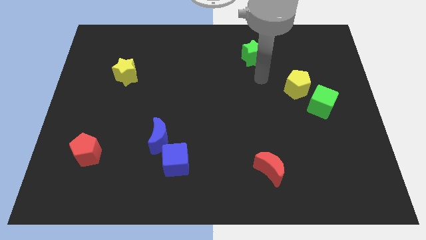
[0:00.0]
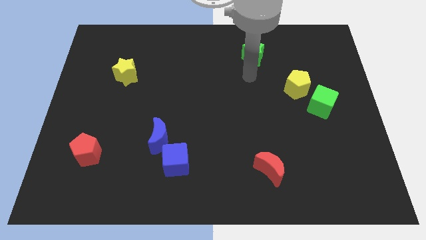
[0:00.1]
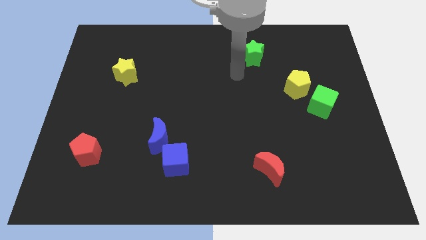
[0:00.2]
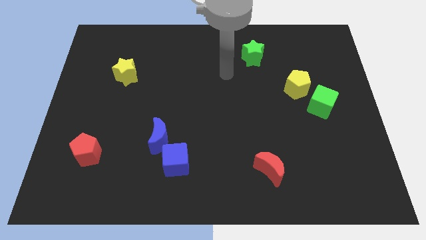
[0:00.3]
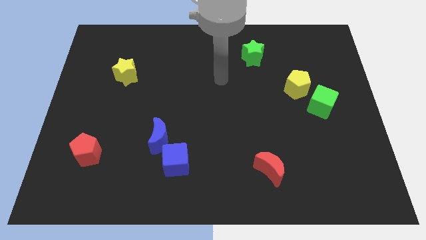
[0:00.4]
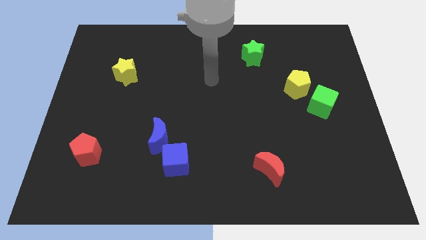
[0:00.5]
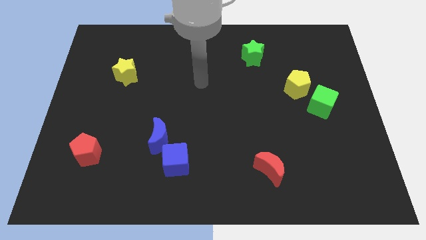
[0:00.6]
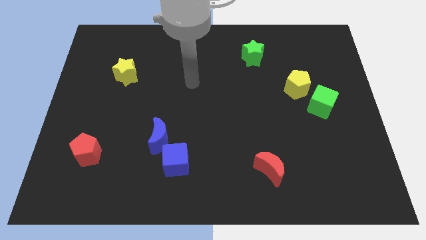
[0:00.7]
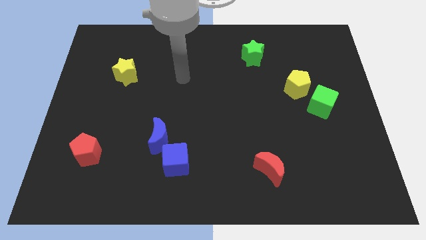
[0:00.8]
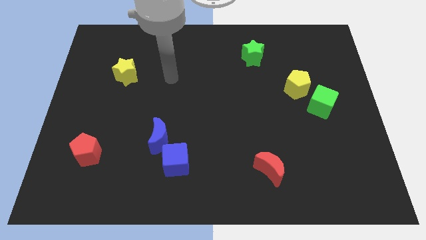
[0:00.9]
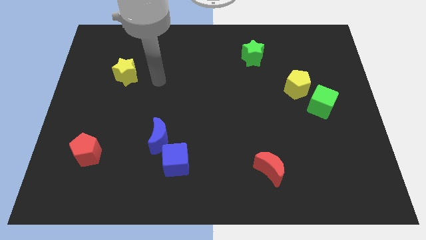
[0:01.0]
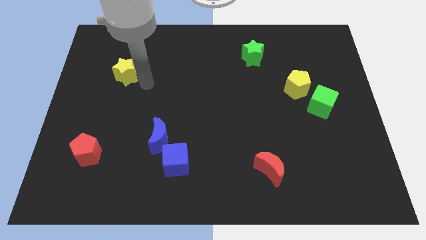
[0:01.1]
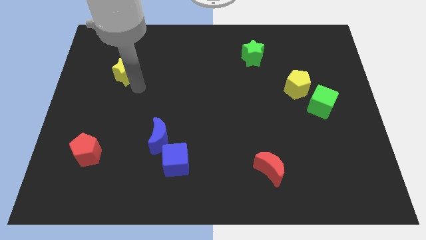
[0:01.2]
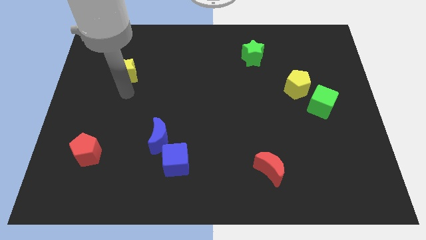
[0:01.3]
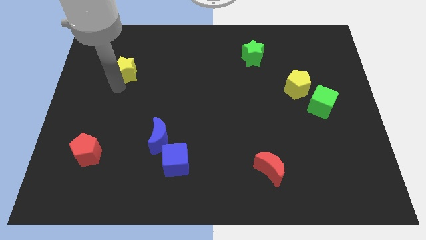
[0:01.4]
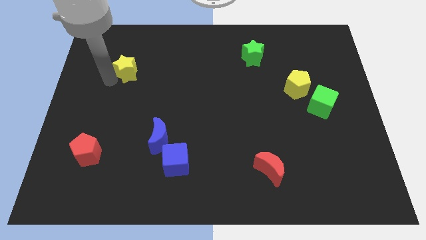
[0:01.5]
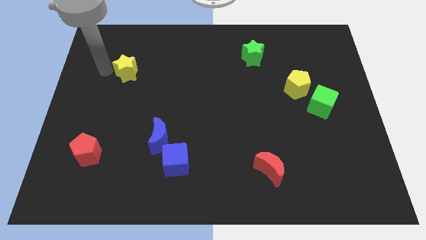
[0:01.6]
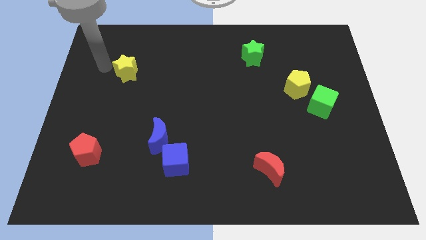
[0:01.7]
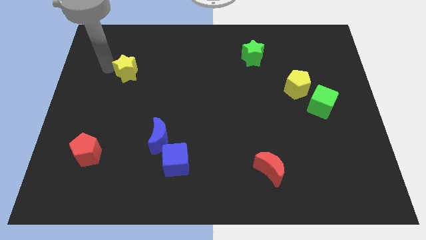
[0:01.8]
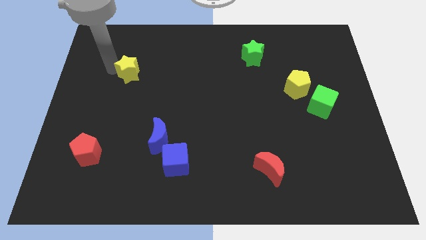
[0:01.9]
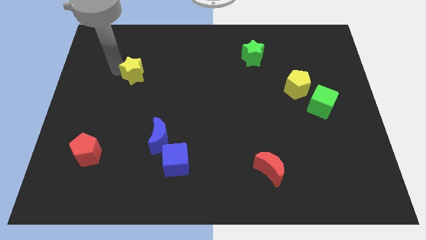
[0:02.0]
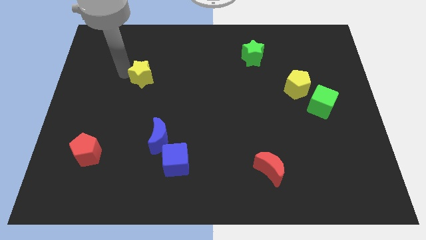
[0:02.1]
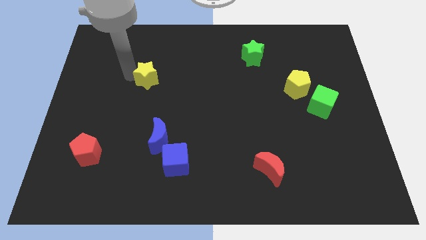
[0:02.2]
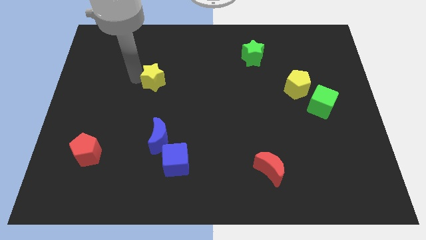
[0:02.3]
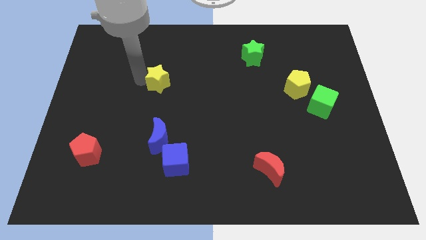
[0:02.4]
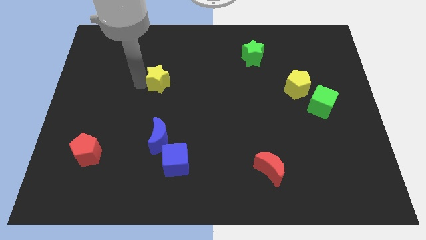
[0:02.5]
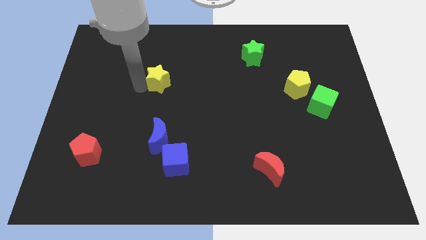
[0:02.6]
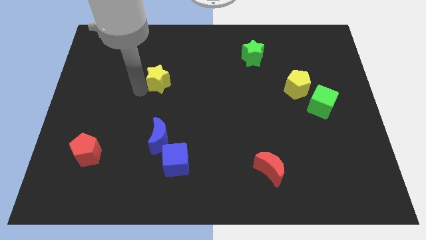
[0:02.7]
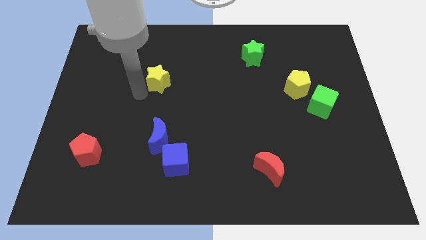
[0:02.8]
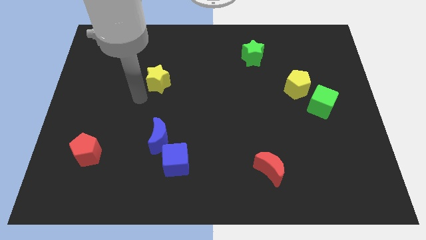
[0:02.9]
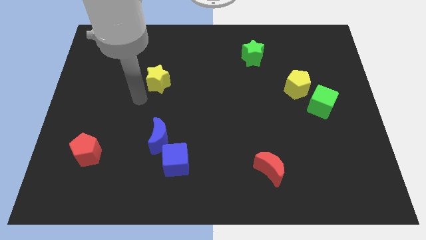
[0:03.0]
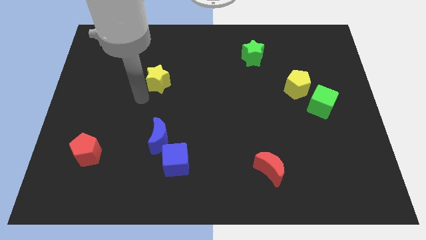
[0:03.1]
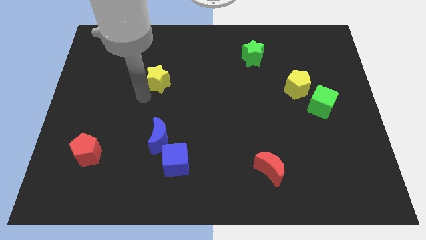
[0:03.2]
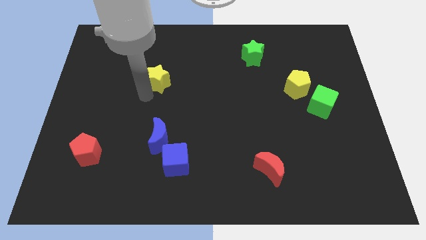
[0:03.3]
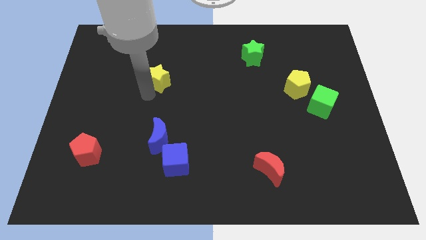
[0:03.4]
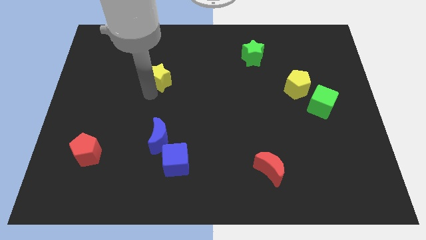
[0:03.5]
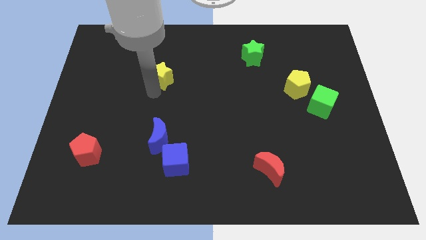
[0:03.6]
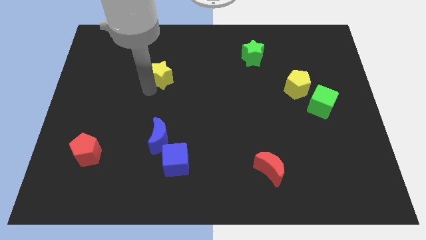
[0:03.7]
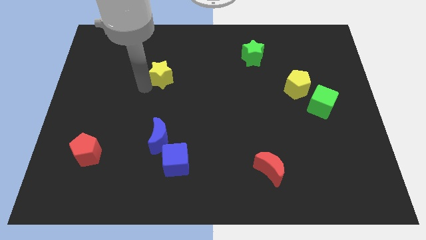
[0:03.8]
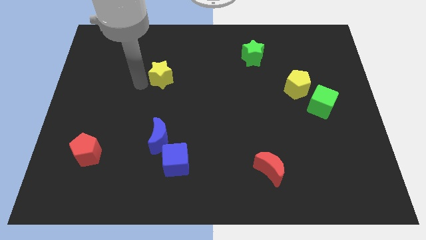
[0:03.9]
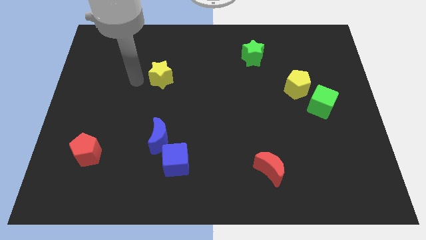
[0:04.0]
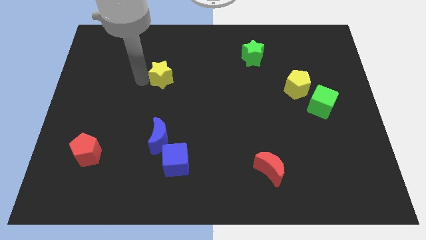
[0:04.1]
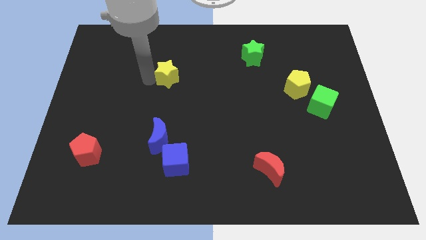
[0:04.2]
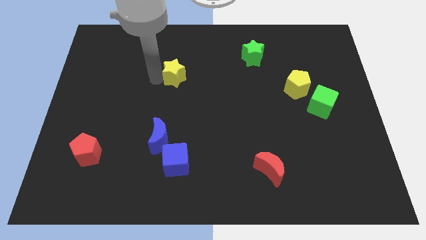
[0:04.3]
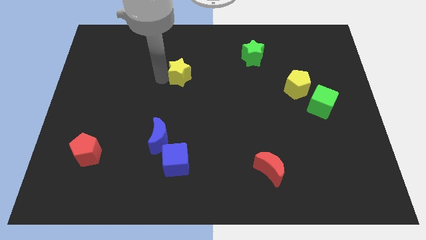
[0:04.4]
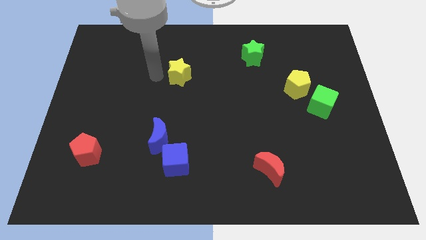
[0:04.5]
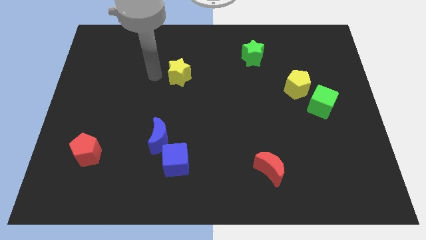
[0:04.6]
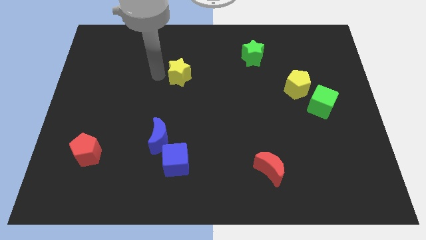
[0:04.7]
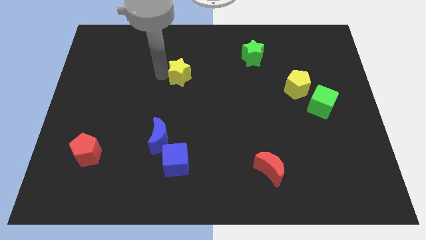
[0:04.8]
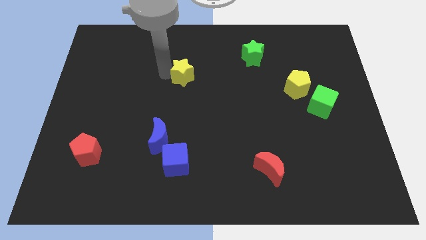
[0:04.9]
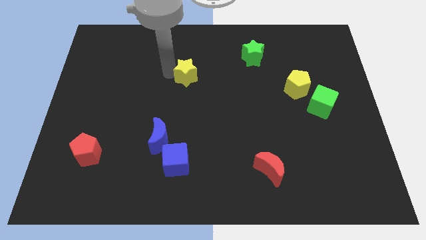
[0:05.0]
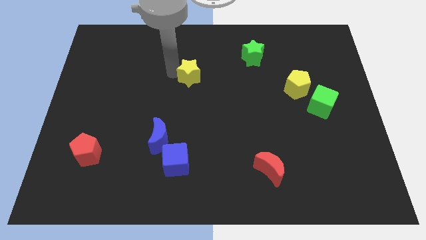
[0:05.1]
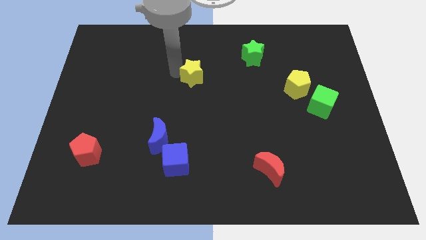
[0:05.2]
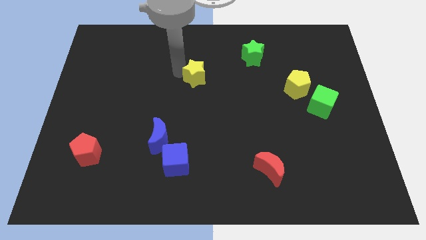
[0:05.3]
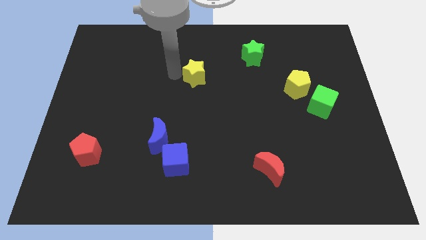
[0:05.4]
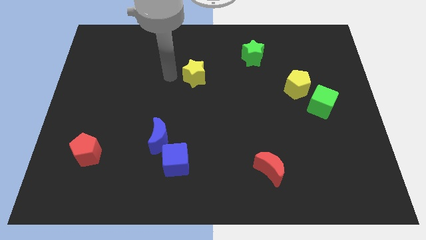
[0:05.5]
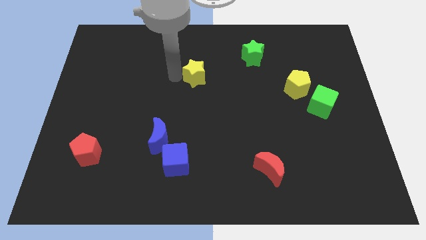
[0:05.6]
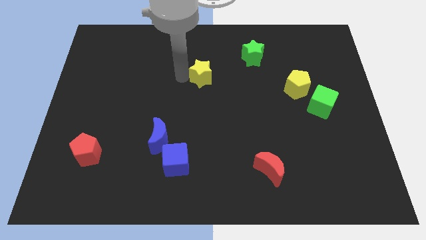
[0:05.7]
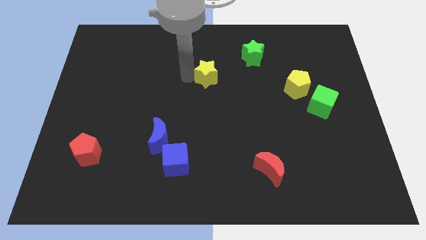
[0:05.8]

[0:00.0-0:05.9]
move the yellow star to the right

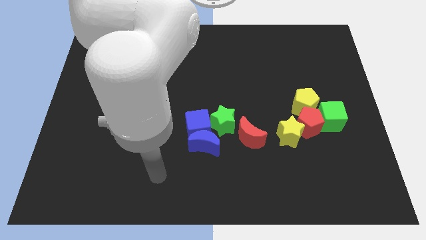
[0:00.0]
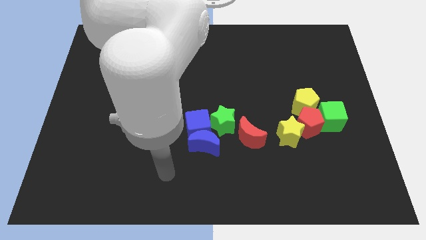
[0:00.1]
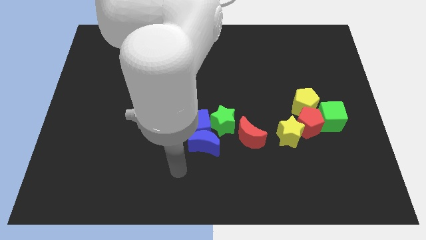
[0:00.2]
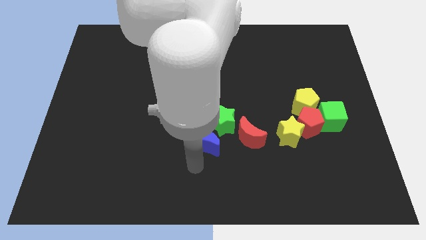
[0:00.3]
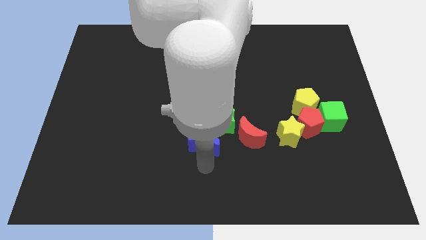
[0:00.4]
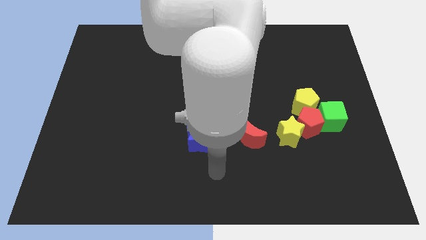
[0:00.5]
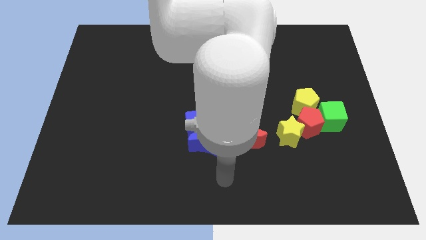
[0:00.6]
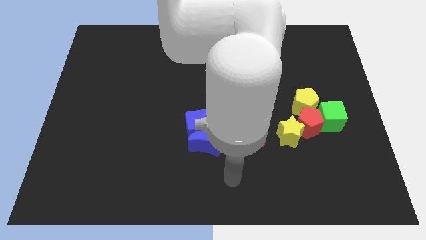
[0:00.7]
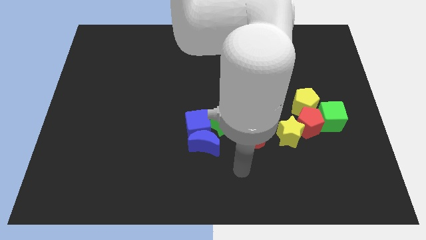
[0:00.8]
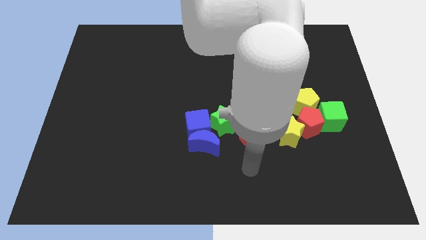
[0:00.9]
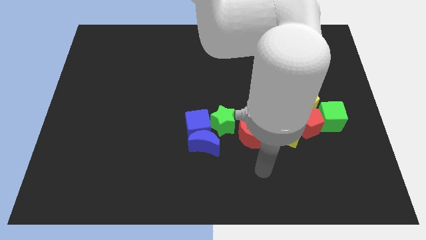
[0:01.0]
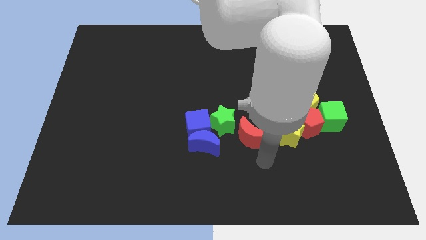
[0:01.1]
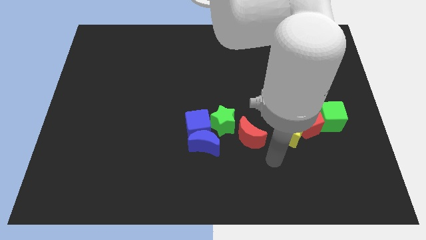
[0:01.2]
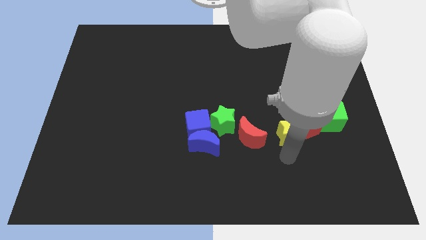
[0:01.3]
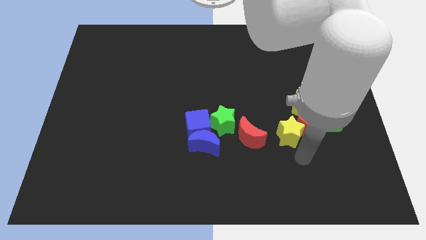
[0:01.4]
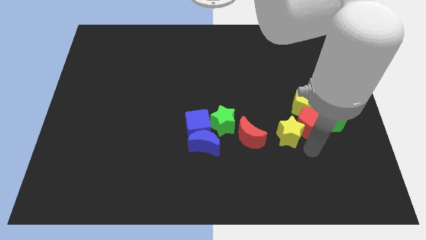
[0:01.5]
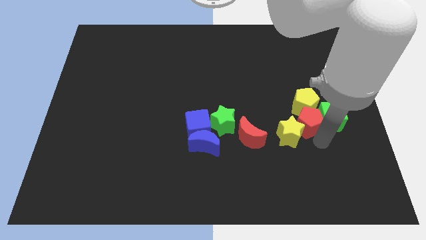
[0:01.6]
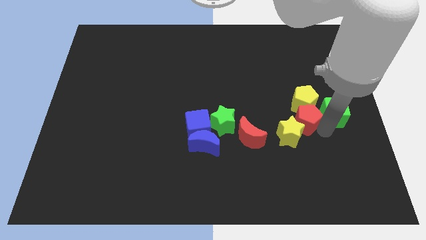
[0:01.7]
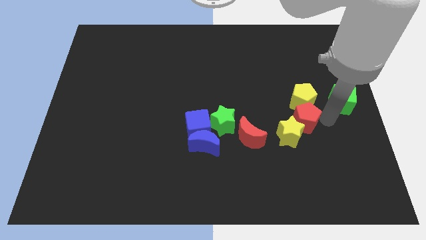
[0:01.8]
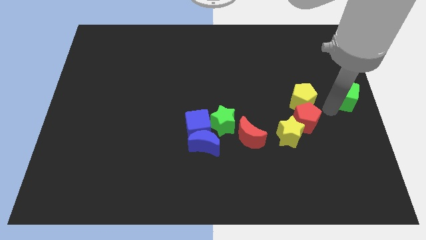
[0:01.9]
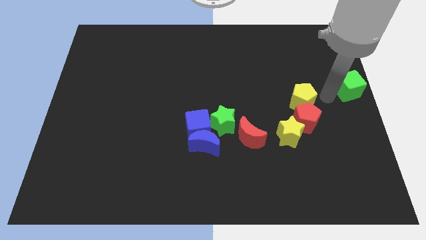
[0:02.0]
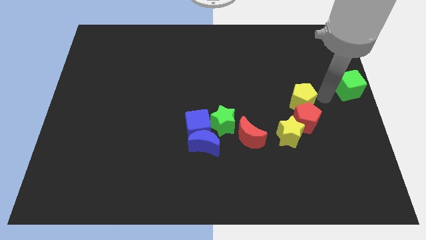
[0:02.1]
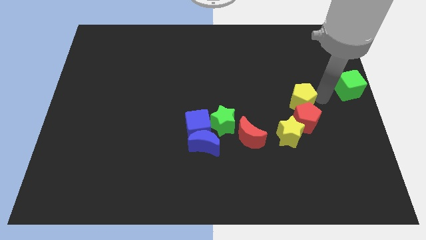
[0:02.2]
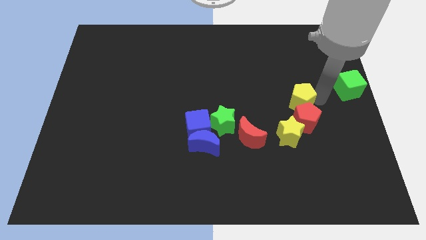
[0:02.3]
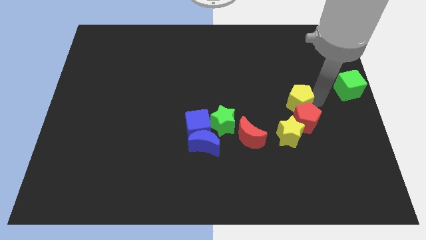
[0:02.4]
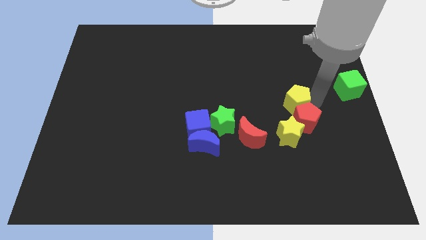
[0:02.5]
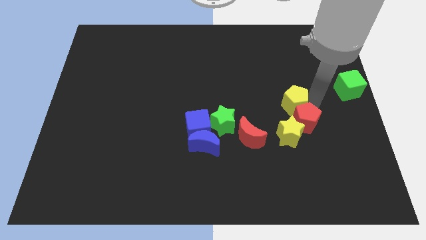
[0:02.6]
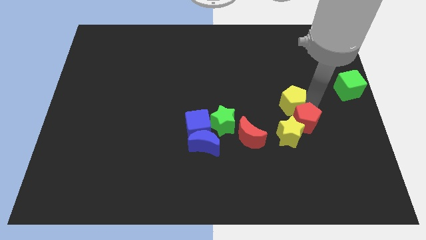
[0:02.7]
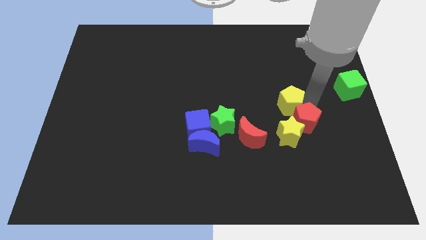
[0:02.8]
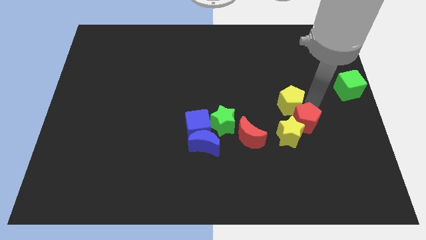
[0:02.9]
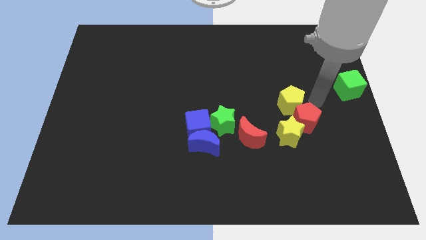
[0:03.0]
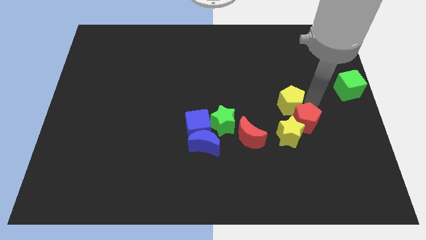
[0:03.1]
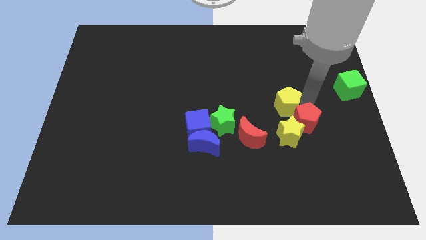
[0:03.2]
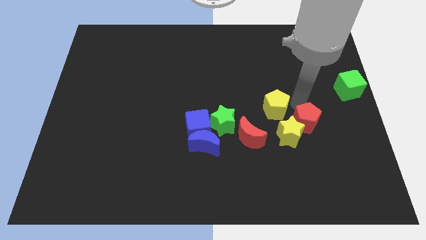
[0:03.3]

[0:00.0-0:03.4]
slightly move the yellow pentagon to the left
